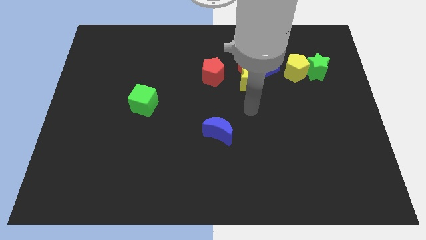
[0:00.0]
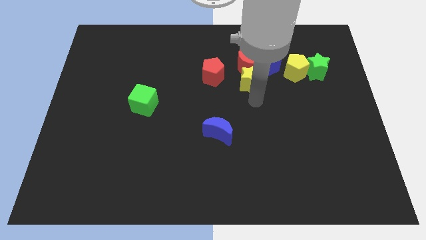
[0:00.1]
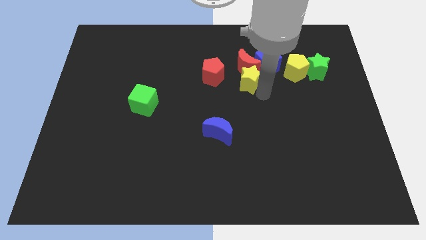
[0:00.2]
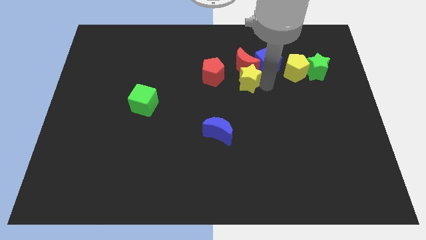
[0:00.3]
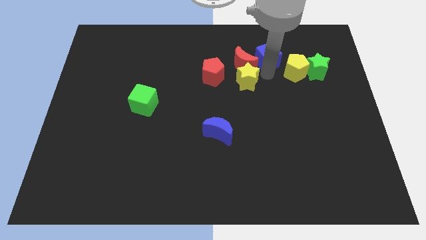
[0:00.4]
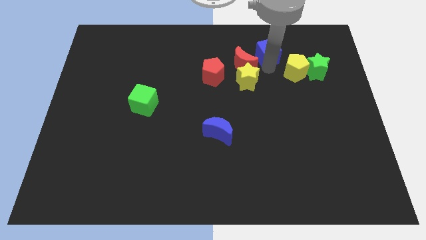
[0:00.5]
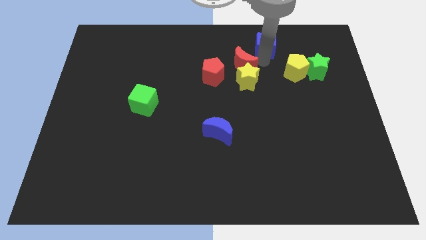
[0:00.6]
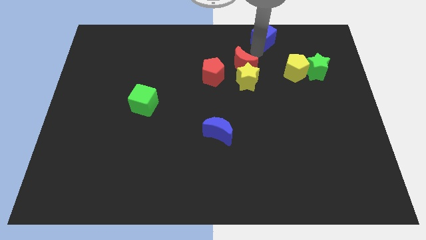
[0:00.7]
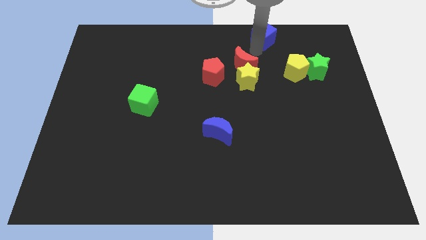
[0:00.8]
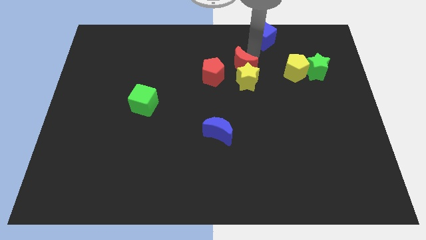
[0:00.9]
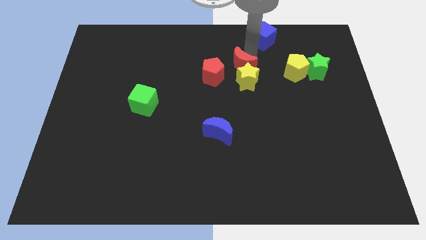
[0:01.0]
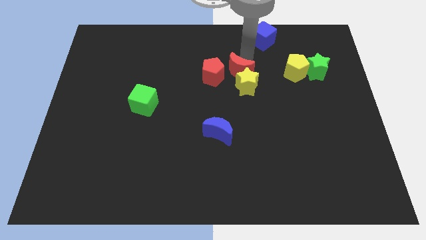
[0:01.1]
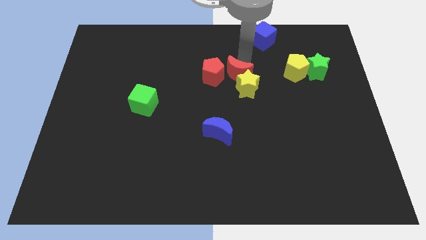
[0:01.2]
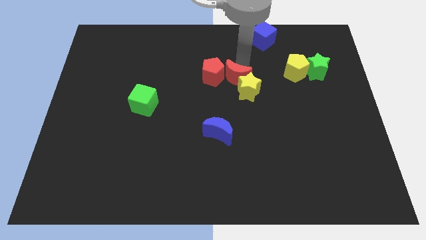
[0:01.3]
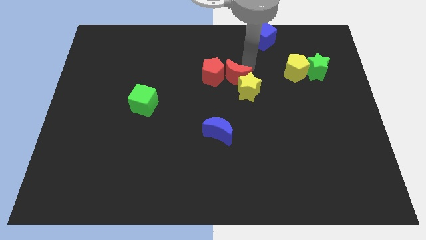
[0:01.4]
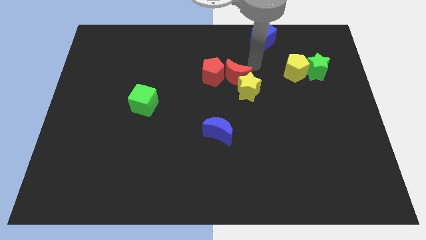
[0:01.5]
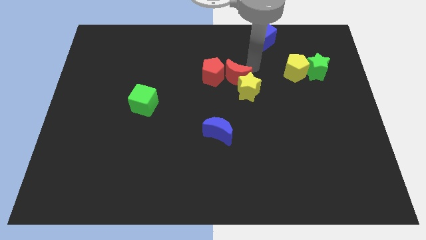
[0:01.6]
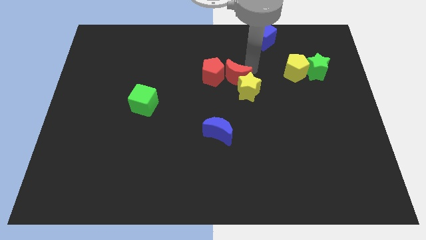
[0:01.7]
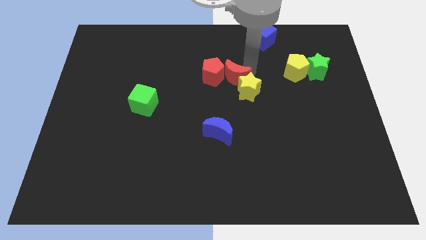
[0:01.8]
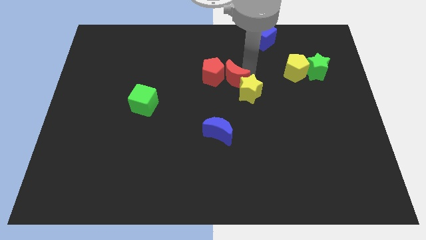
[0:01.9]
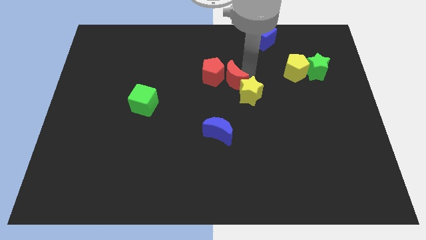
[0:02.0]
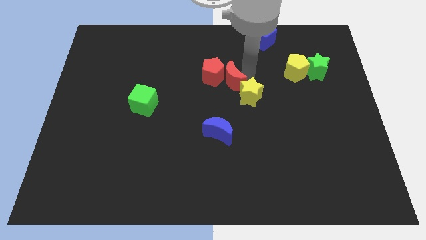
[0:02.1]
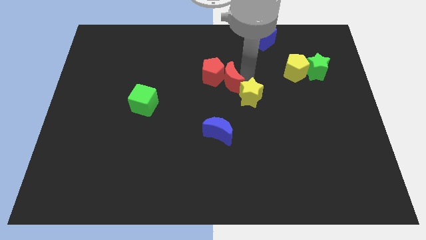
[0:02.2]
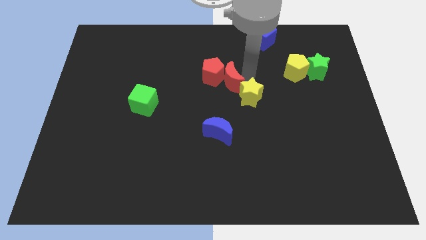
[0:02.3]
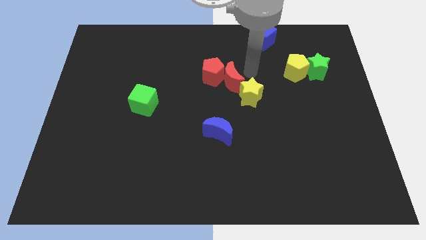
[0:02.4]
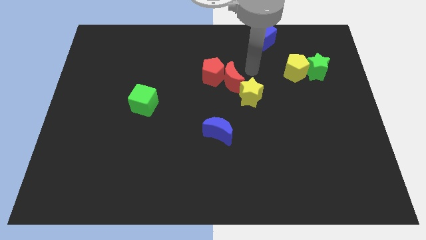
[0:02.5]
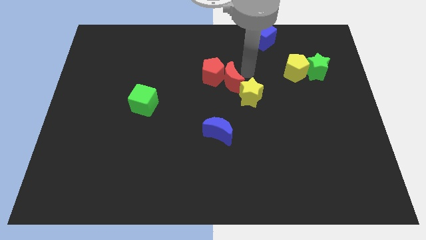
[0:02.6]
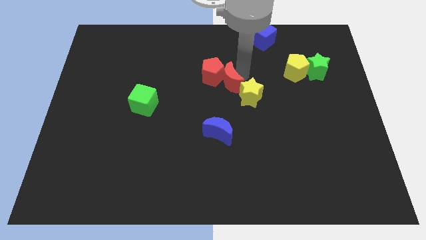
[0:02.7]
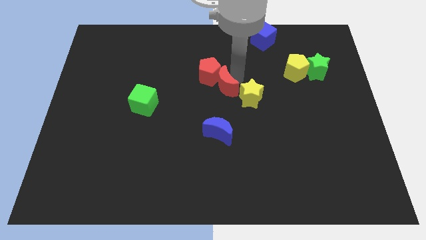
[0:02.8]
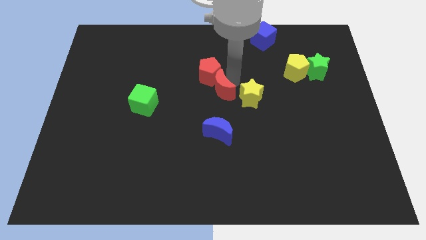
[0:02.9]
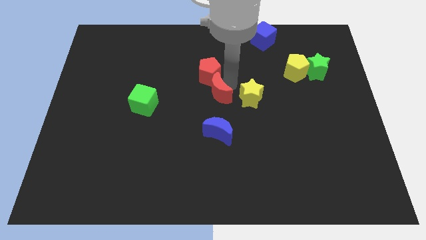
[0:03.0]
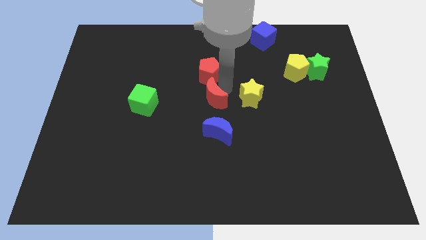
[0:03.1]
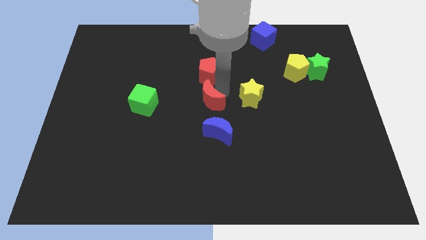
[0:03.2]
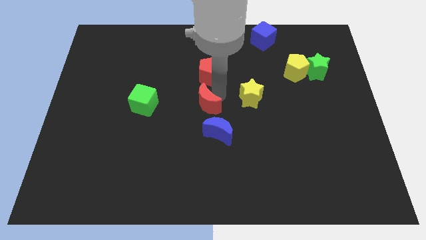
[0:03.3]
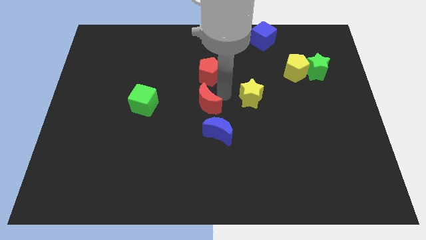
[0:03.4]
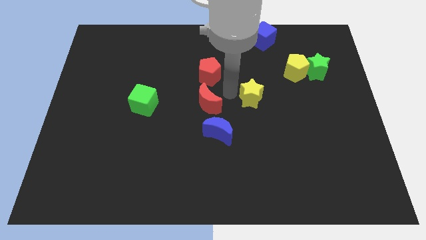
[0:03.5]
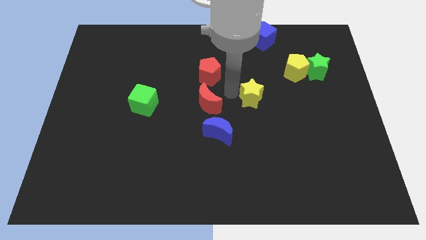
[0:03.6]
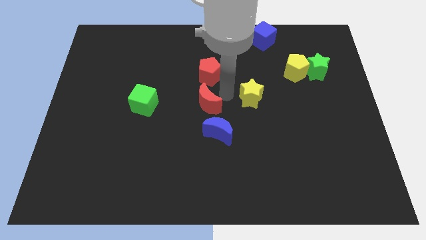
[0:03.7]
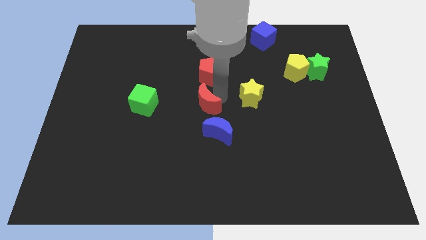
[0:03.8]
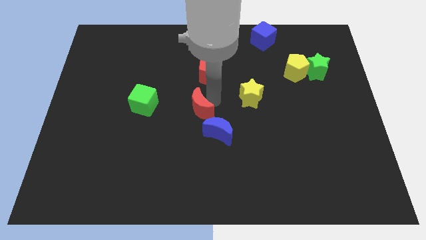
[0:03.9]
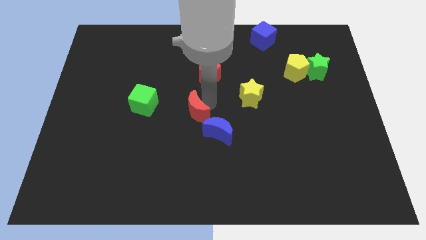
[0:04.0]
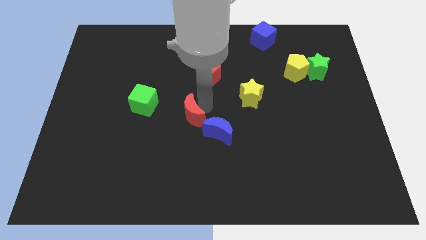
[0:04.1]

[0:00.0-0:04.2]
move the red moon down and to the left diagonally

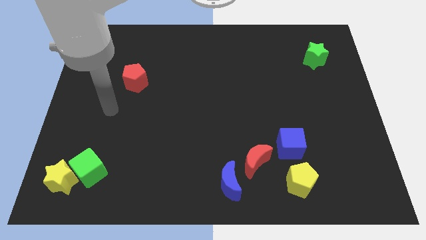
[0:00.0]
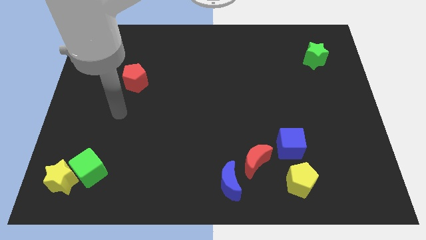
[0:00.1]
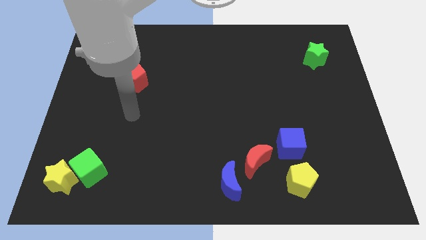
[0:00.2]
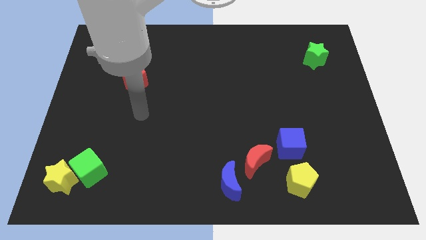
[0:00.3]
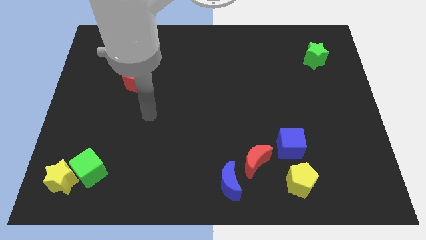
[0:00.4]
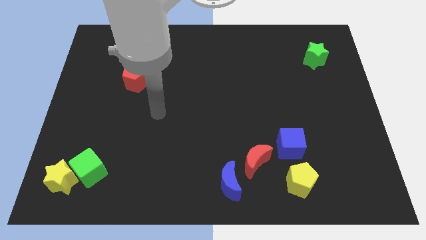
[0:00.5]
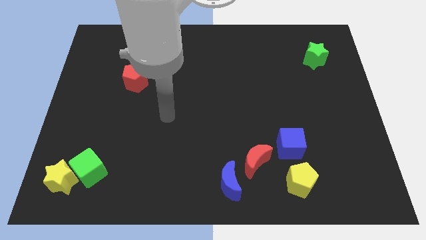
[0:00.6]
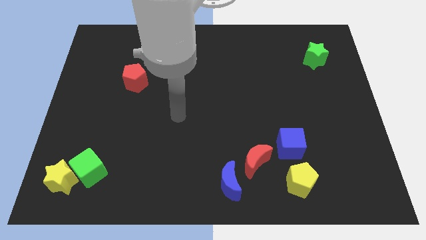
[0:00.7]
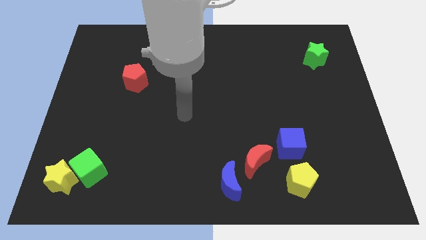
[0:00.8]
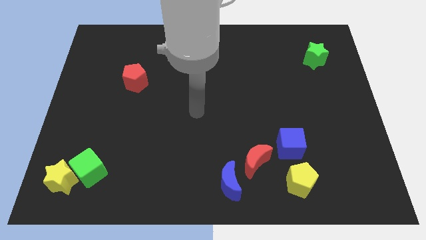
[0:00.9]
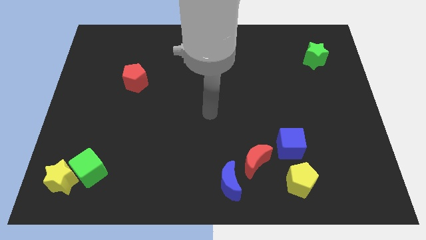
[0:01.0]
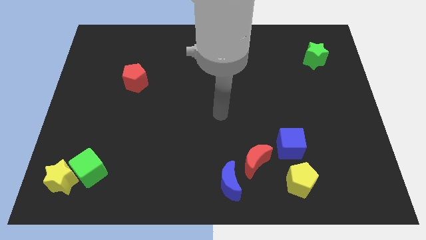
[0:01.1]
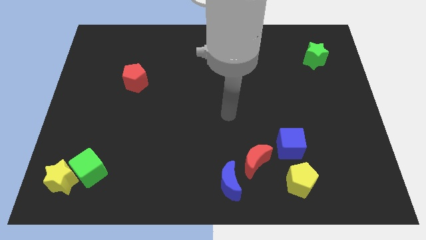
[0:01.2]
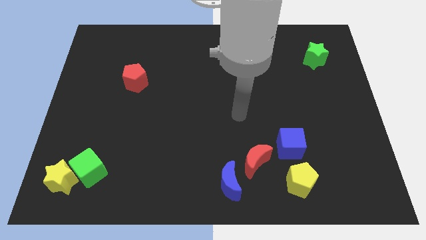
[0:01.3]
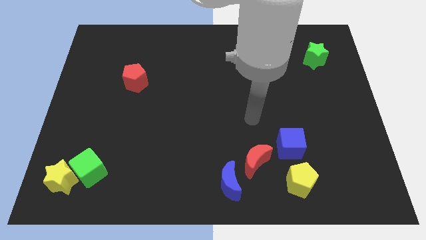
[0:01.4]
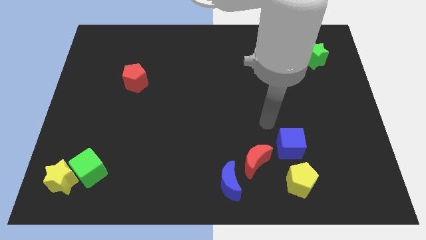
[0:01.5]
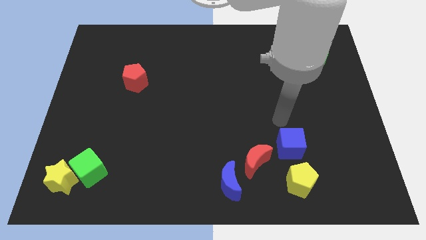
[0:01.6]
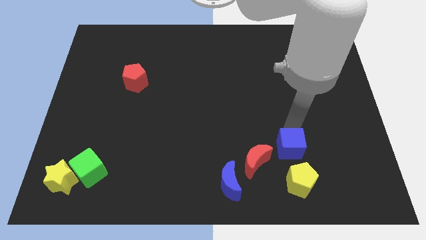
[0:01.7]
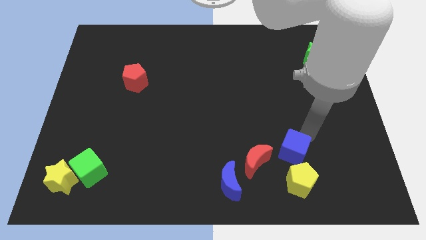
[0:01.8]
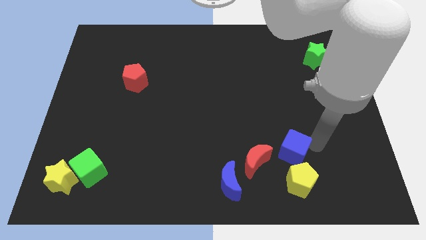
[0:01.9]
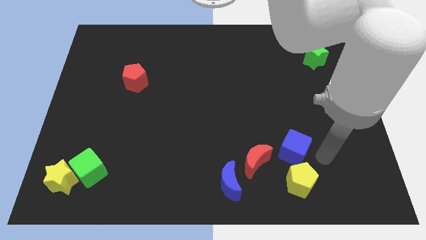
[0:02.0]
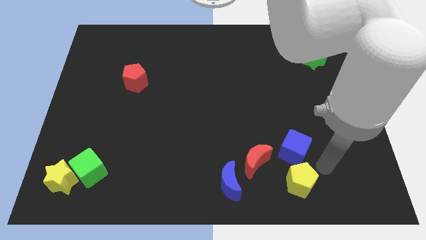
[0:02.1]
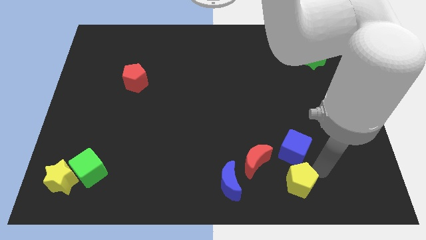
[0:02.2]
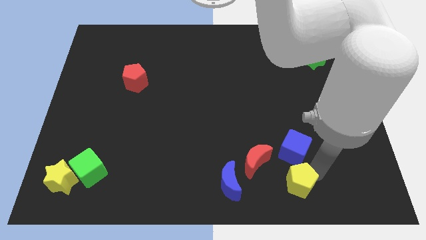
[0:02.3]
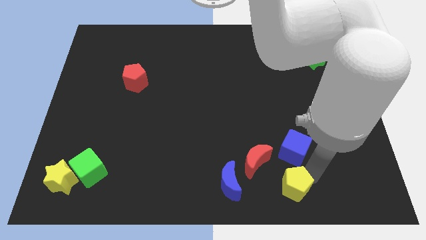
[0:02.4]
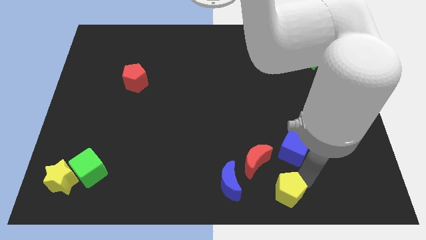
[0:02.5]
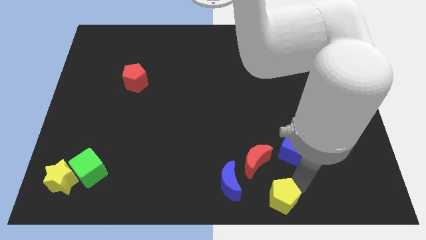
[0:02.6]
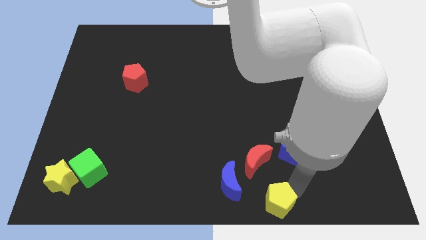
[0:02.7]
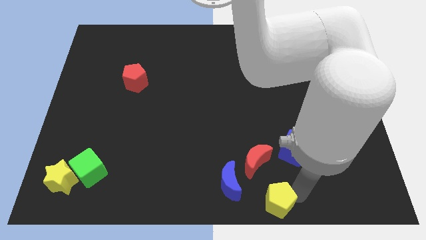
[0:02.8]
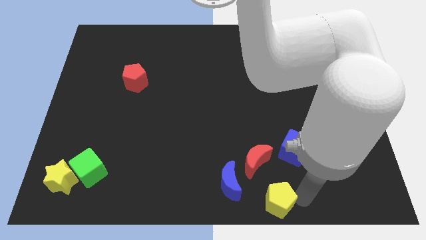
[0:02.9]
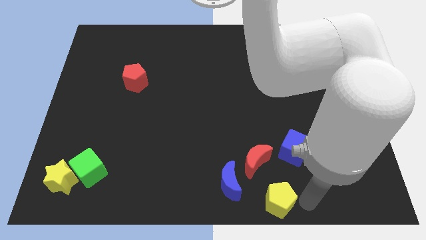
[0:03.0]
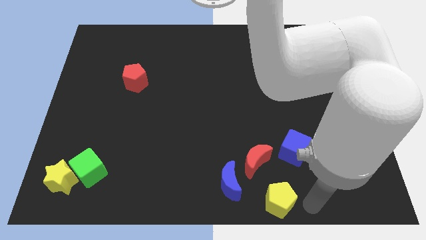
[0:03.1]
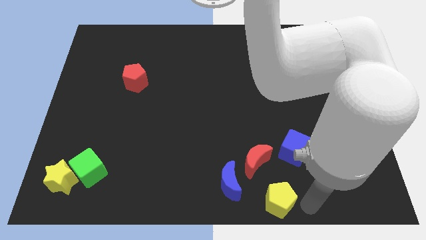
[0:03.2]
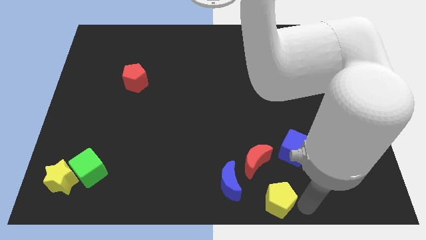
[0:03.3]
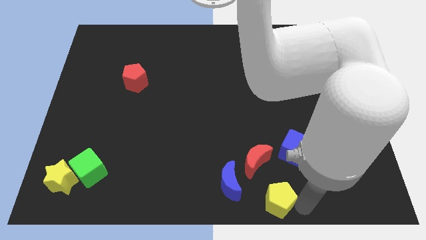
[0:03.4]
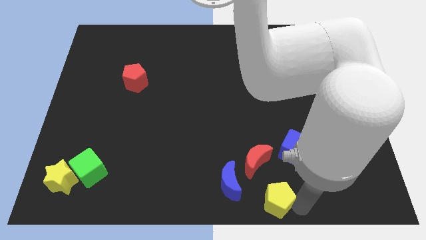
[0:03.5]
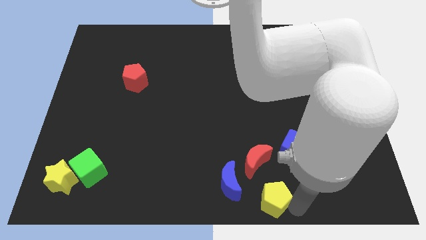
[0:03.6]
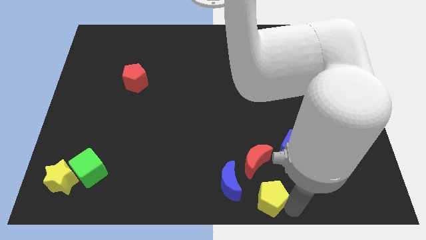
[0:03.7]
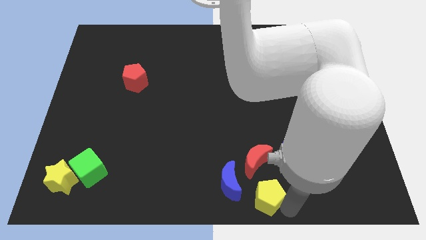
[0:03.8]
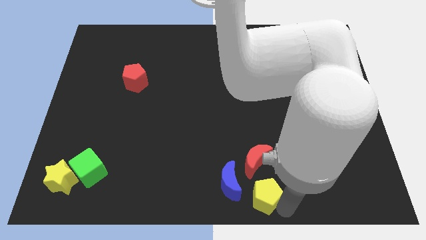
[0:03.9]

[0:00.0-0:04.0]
slightly push the yellow pentagon to the left
